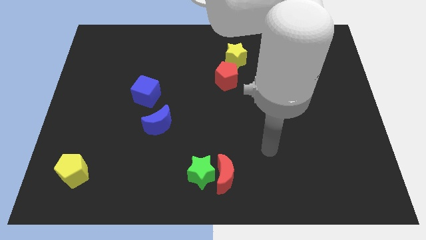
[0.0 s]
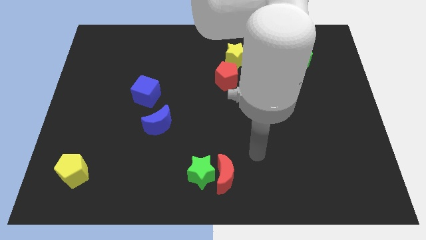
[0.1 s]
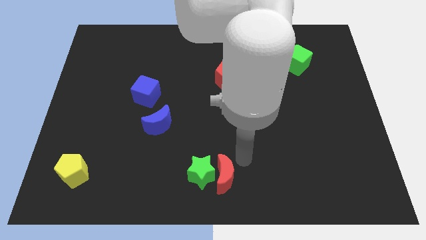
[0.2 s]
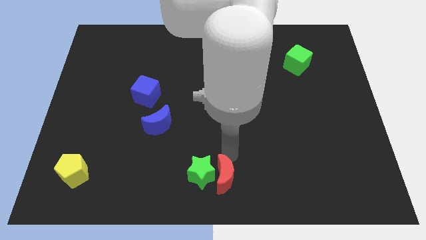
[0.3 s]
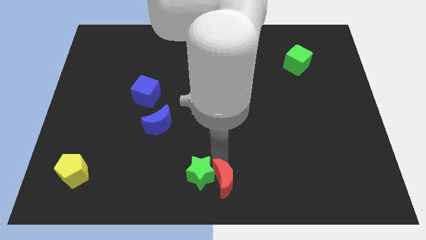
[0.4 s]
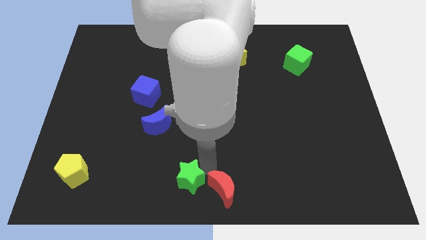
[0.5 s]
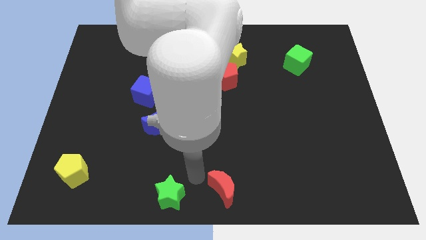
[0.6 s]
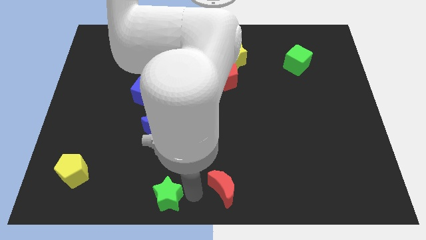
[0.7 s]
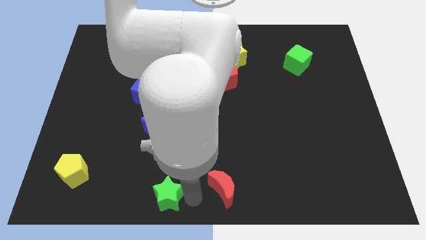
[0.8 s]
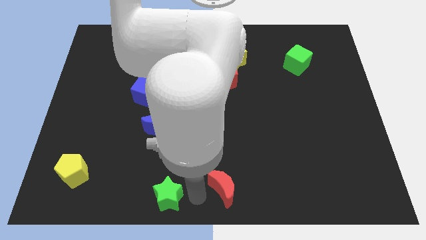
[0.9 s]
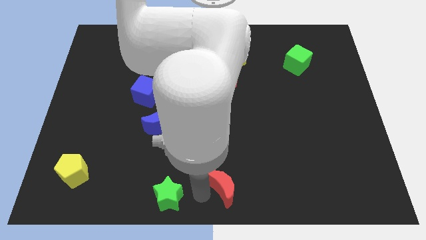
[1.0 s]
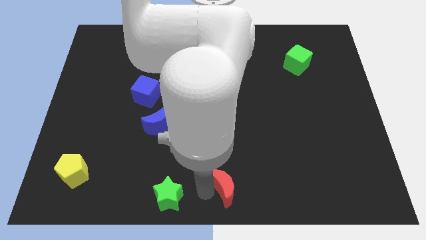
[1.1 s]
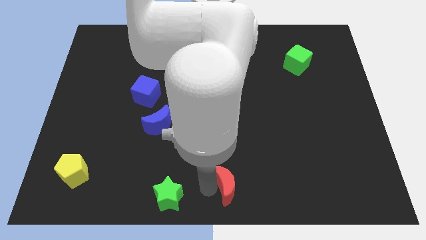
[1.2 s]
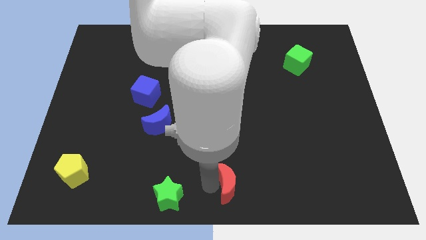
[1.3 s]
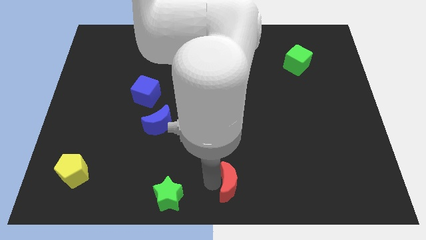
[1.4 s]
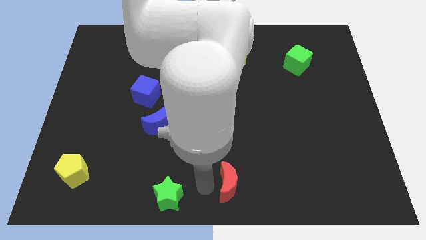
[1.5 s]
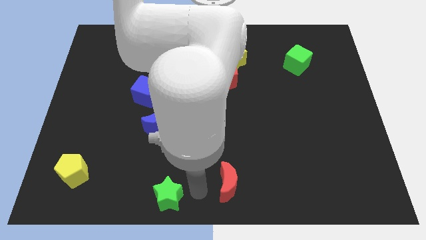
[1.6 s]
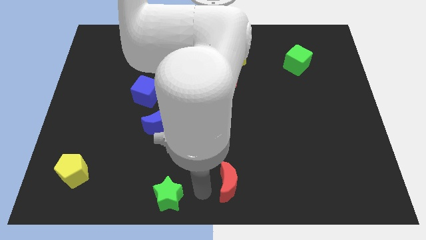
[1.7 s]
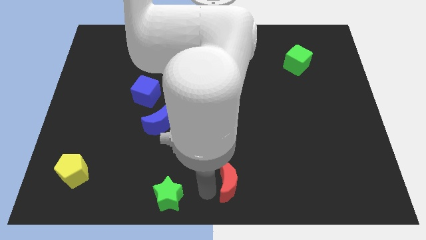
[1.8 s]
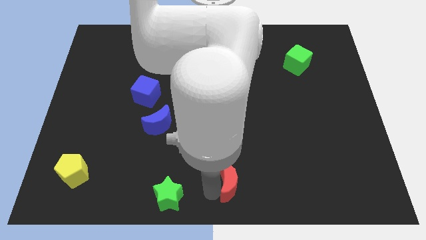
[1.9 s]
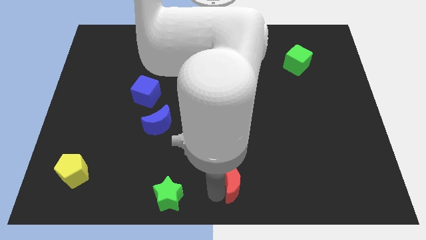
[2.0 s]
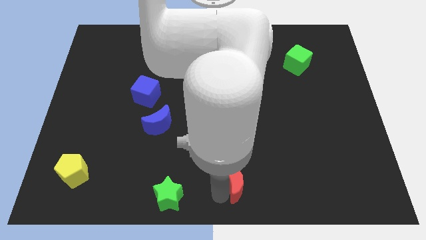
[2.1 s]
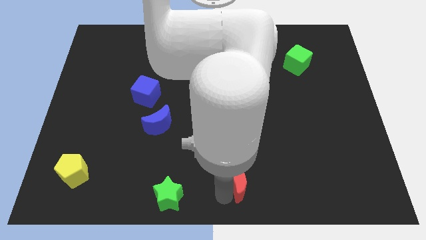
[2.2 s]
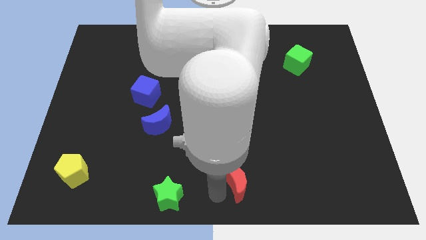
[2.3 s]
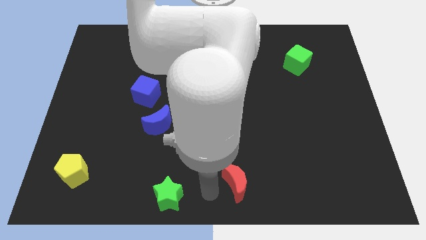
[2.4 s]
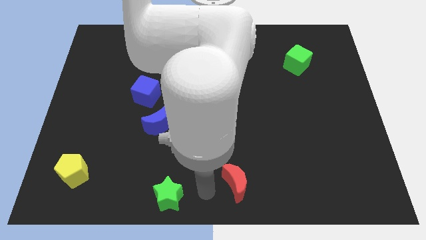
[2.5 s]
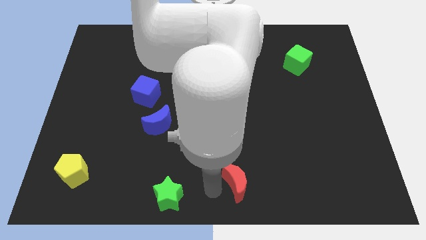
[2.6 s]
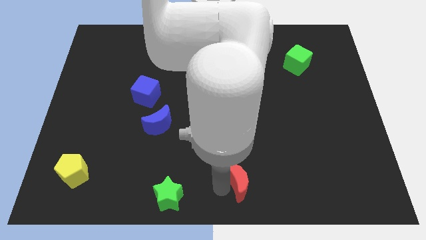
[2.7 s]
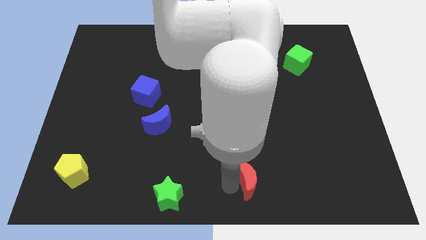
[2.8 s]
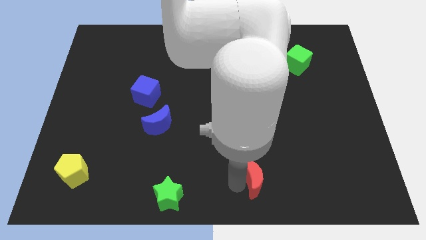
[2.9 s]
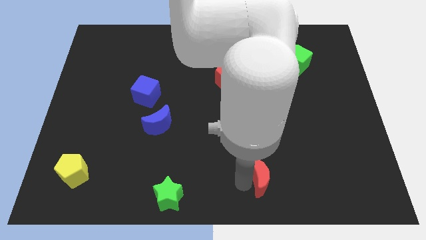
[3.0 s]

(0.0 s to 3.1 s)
push the red moon slightly right

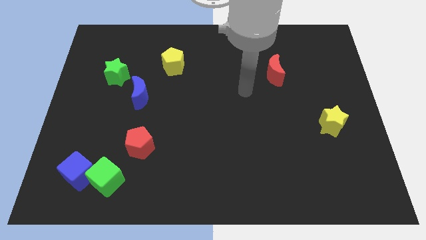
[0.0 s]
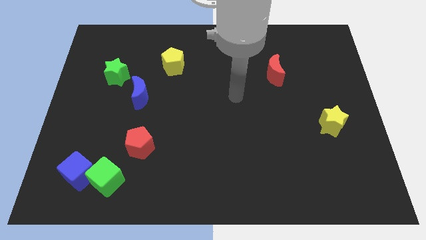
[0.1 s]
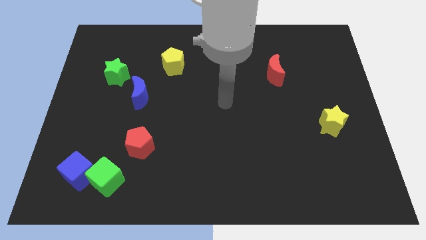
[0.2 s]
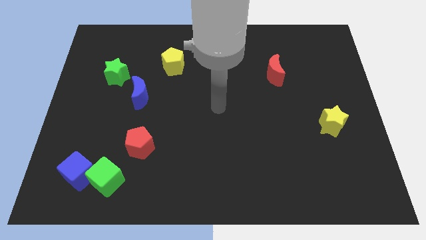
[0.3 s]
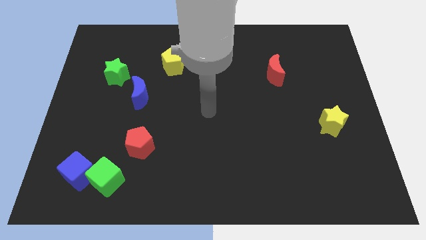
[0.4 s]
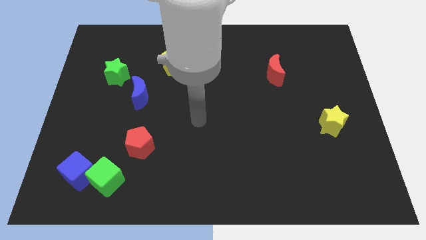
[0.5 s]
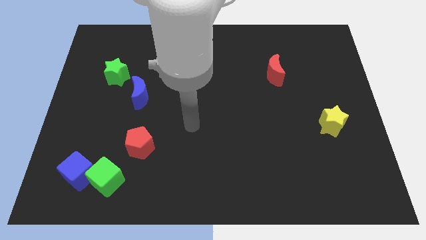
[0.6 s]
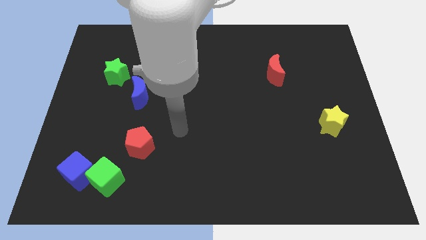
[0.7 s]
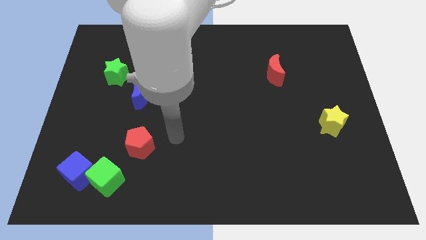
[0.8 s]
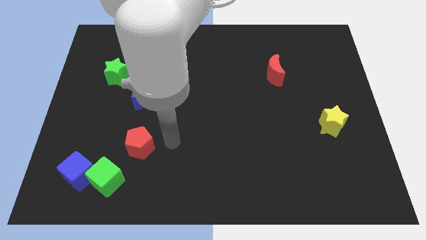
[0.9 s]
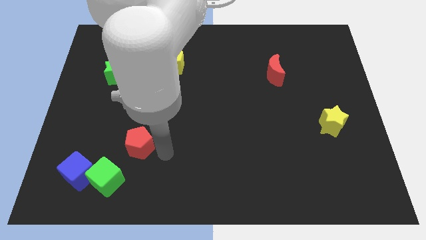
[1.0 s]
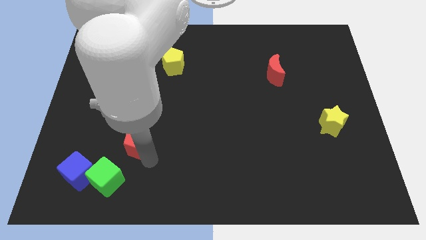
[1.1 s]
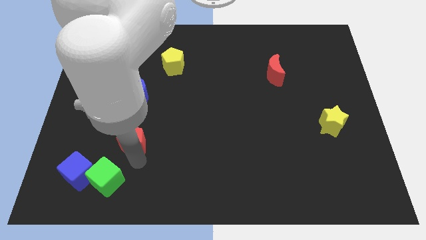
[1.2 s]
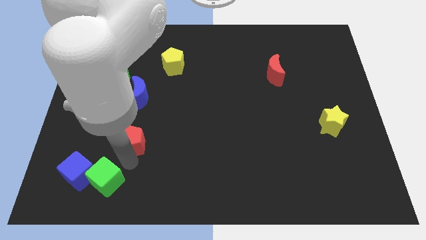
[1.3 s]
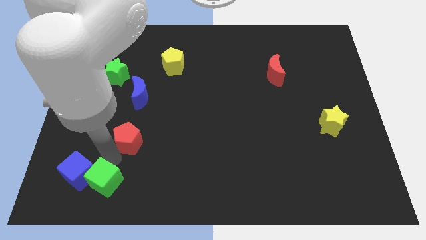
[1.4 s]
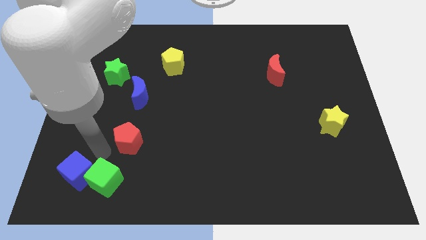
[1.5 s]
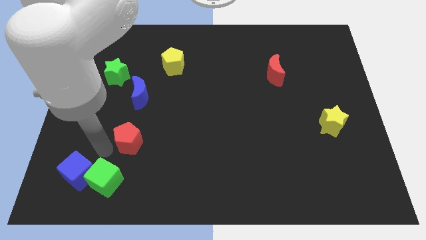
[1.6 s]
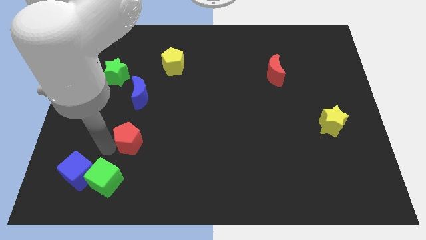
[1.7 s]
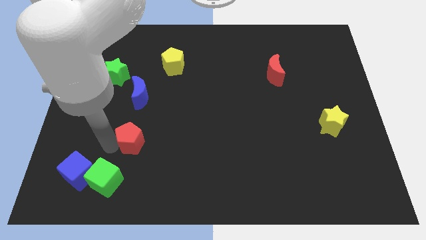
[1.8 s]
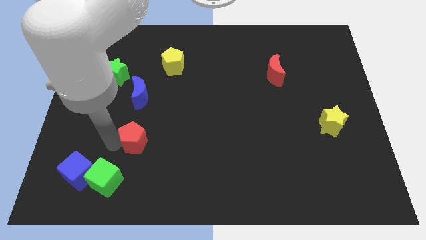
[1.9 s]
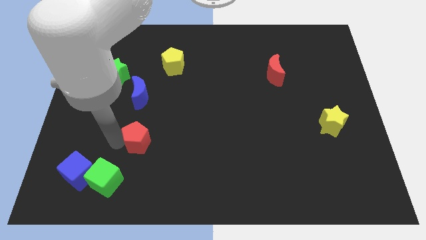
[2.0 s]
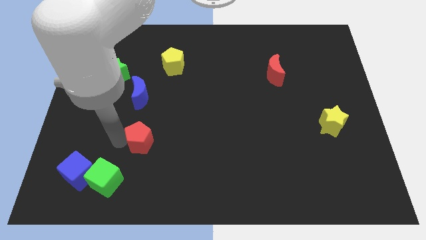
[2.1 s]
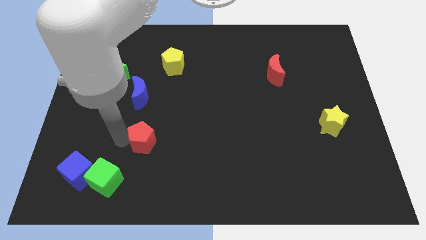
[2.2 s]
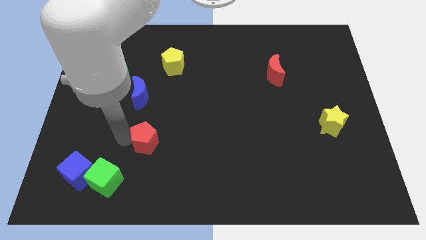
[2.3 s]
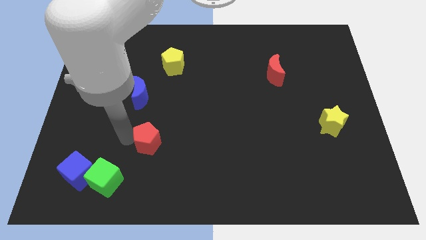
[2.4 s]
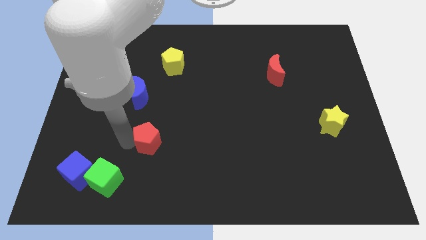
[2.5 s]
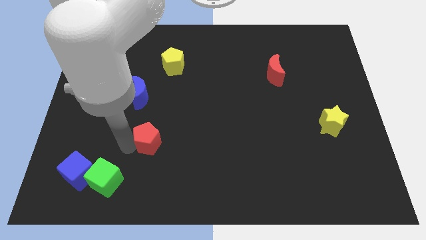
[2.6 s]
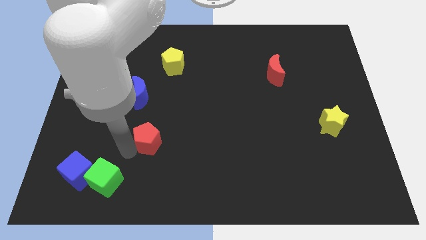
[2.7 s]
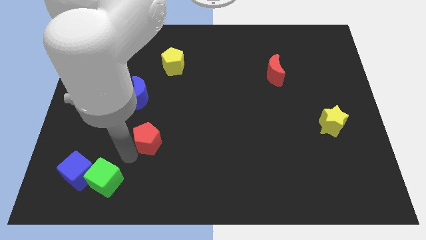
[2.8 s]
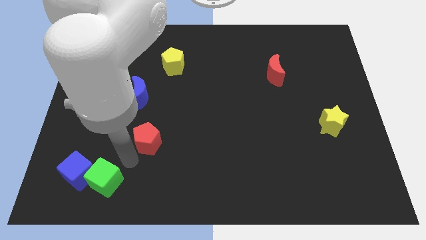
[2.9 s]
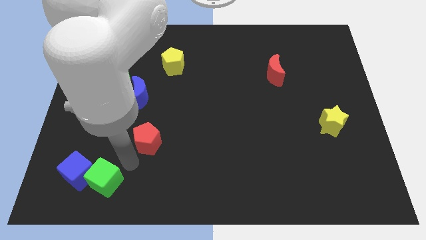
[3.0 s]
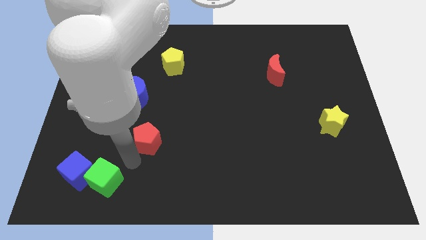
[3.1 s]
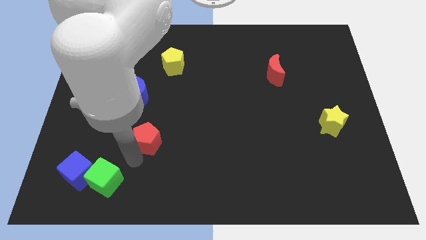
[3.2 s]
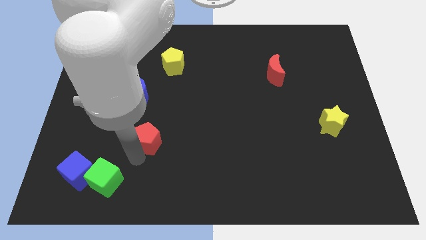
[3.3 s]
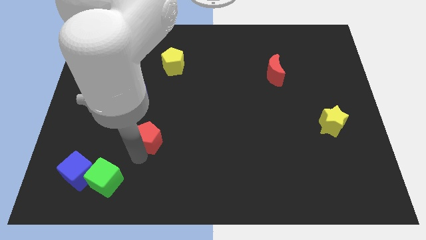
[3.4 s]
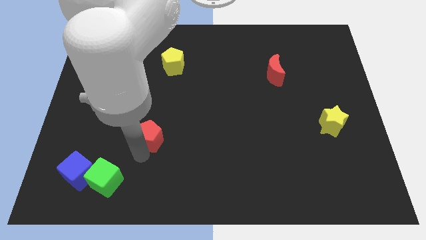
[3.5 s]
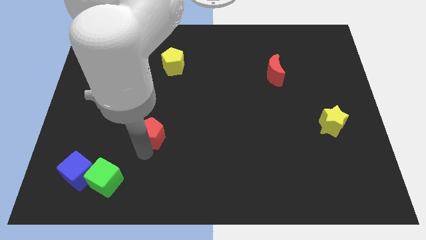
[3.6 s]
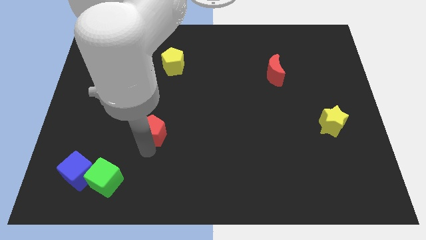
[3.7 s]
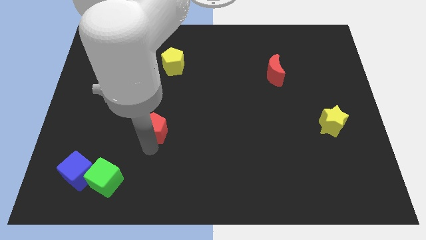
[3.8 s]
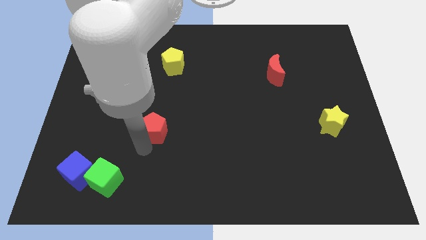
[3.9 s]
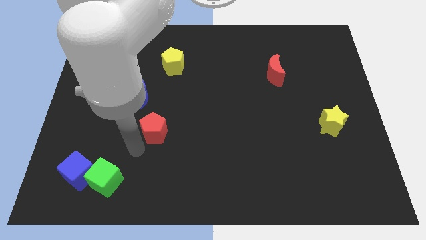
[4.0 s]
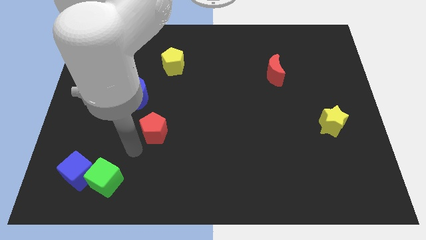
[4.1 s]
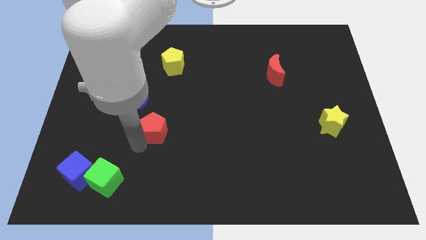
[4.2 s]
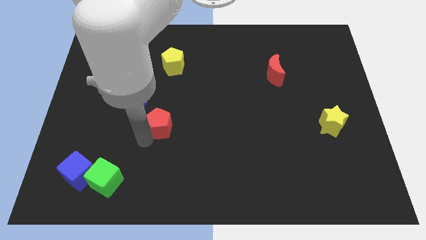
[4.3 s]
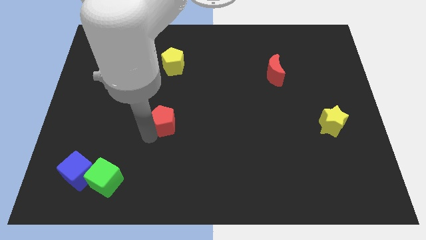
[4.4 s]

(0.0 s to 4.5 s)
slide the red pentagon a bit diagonally up and right
